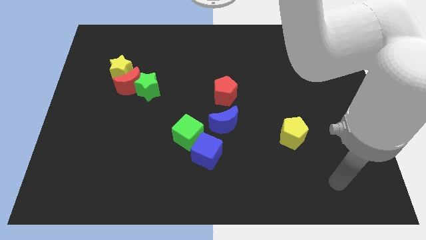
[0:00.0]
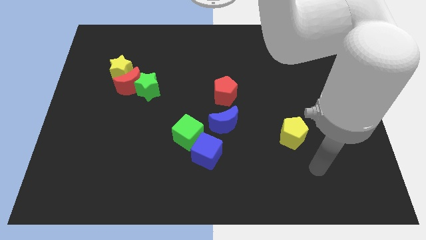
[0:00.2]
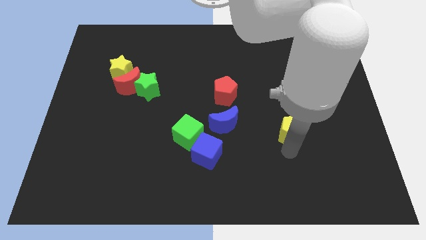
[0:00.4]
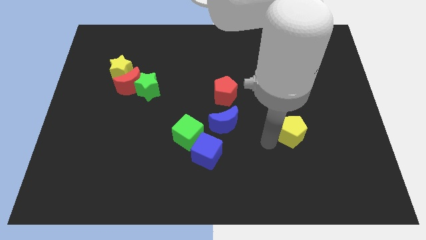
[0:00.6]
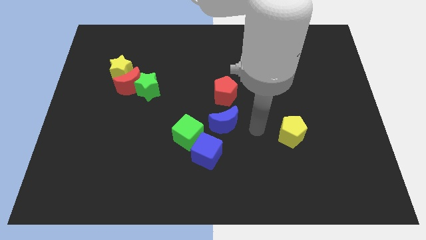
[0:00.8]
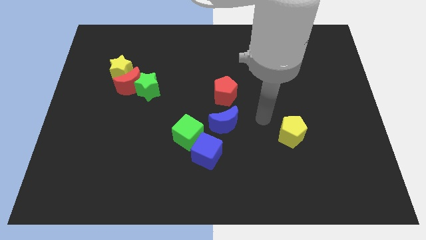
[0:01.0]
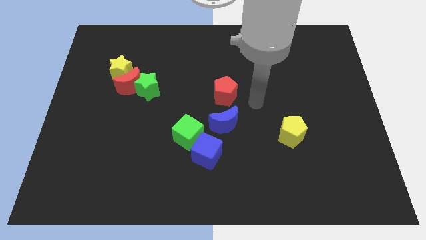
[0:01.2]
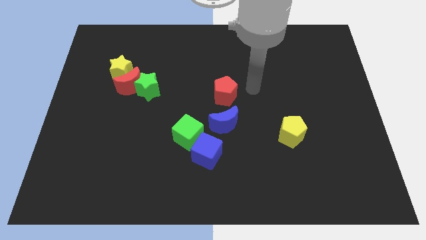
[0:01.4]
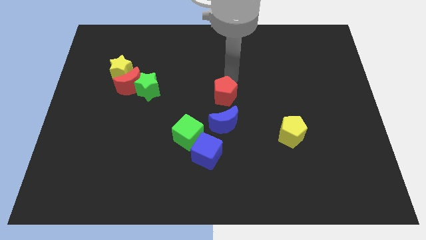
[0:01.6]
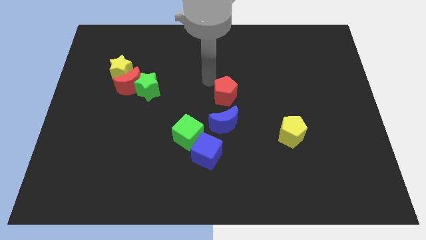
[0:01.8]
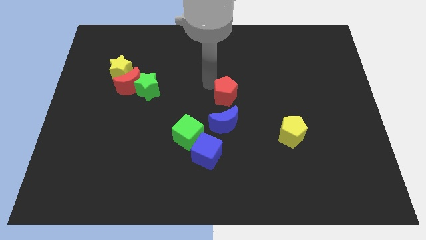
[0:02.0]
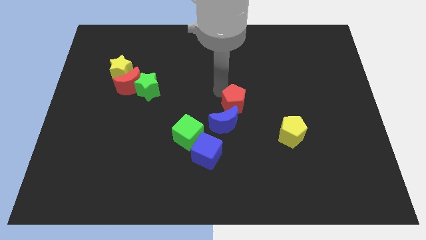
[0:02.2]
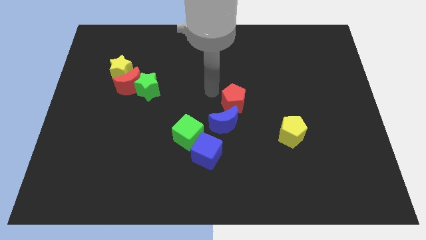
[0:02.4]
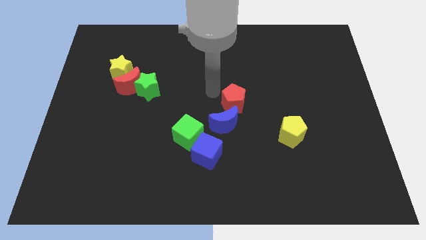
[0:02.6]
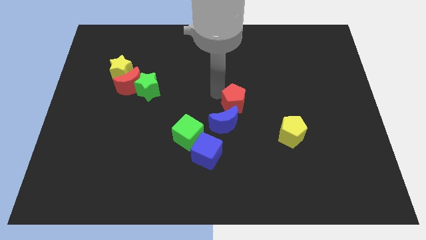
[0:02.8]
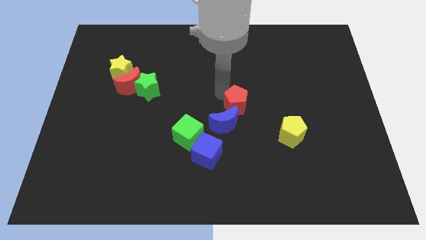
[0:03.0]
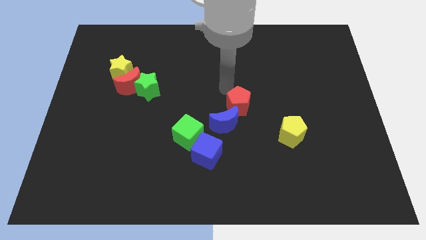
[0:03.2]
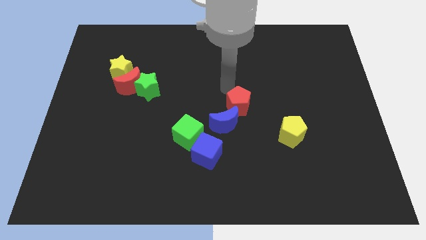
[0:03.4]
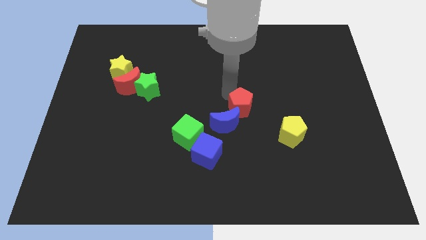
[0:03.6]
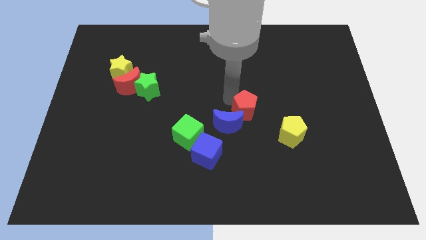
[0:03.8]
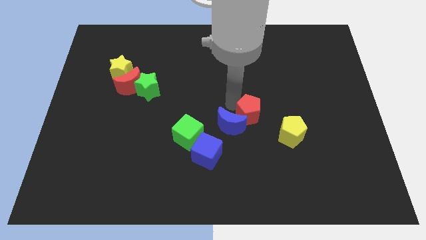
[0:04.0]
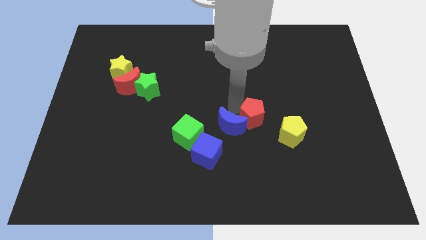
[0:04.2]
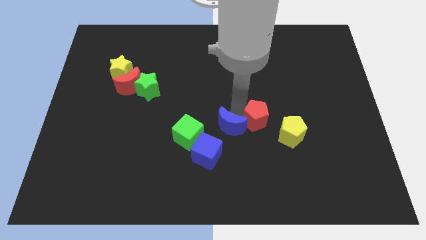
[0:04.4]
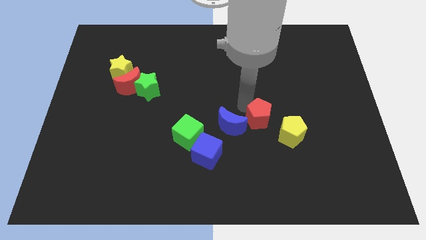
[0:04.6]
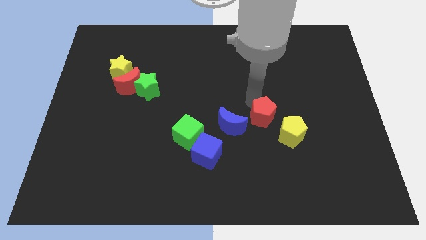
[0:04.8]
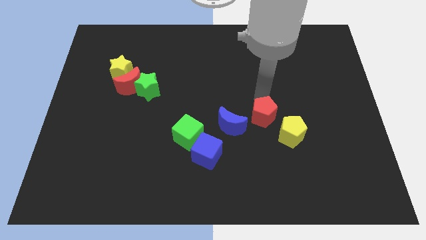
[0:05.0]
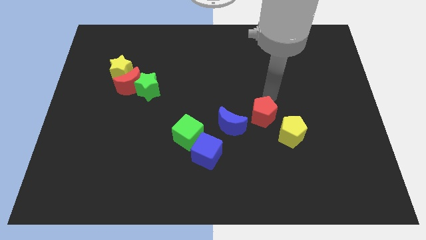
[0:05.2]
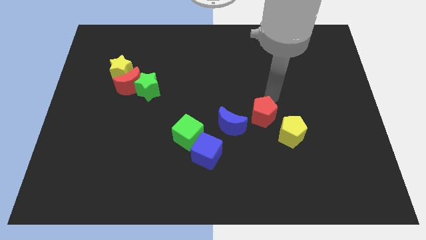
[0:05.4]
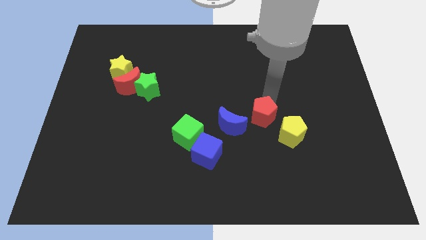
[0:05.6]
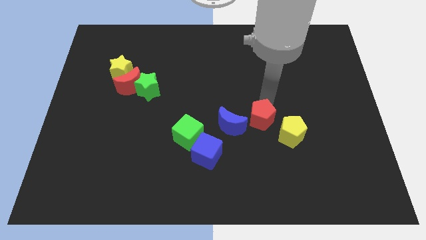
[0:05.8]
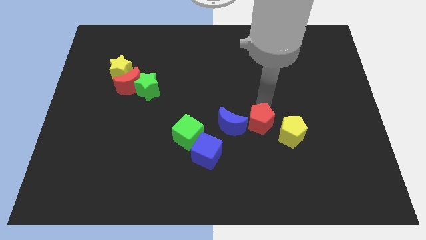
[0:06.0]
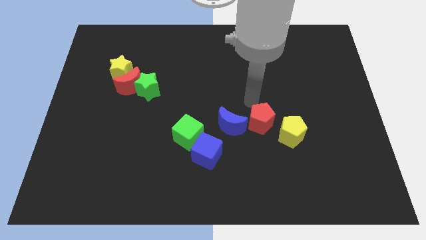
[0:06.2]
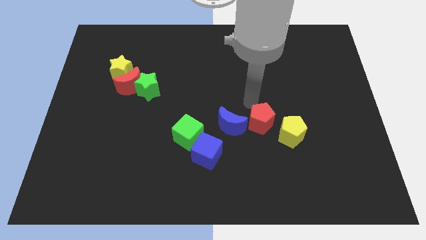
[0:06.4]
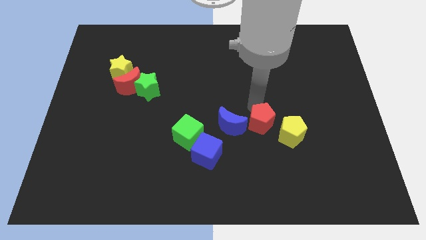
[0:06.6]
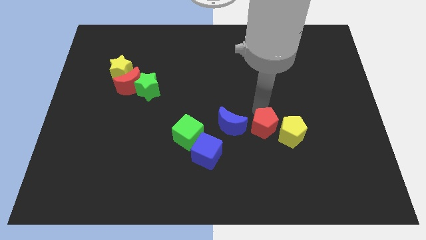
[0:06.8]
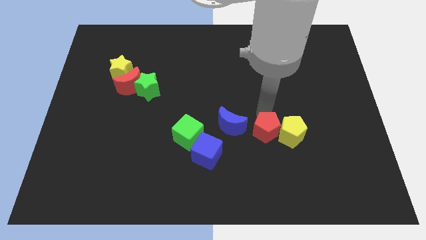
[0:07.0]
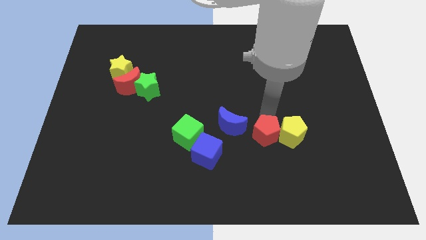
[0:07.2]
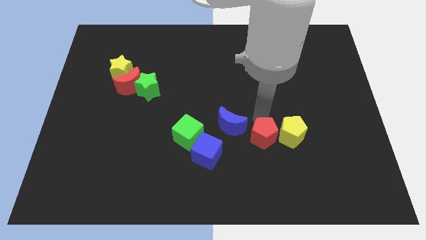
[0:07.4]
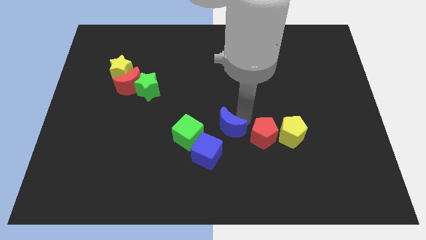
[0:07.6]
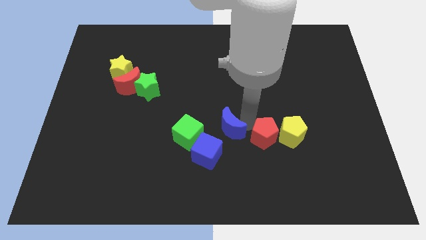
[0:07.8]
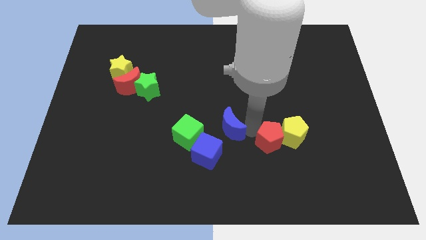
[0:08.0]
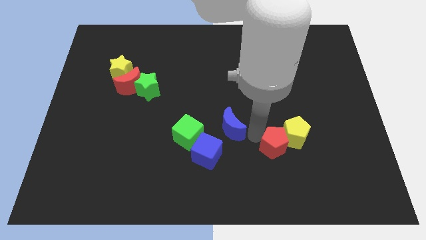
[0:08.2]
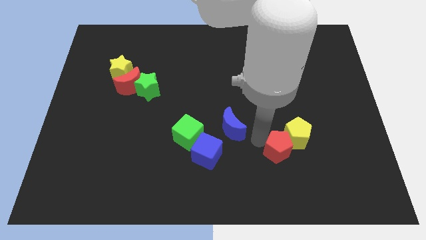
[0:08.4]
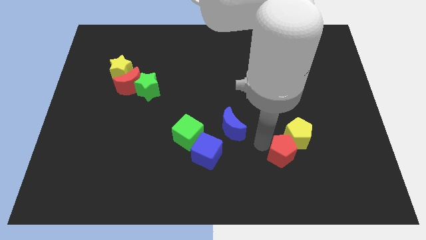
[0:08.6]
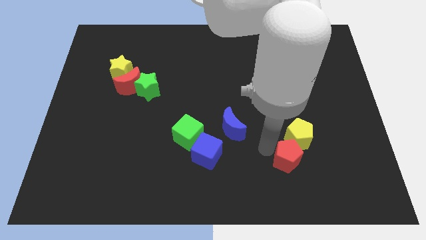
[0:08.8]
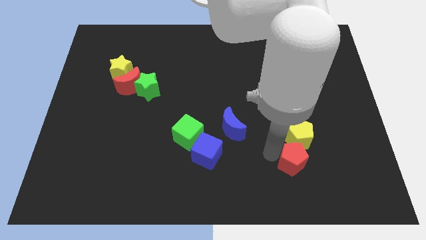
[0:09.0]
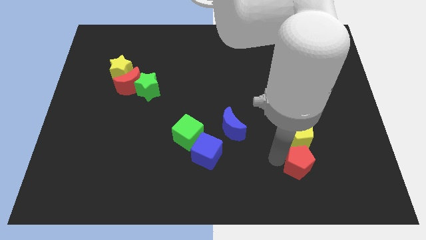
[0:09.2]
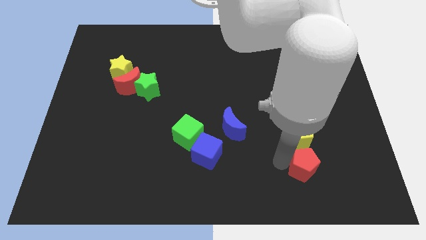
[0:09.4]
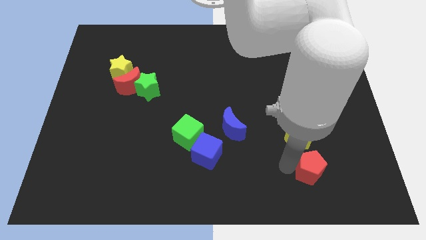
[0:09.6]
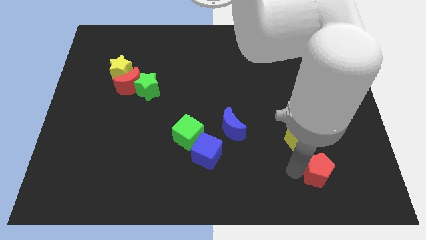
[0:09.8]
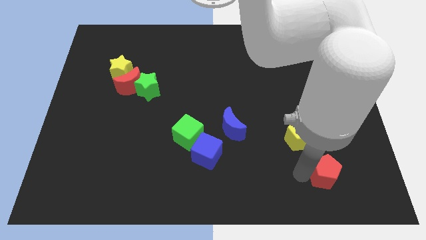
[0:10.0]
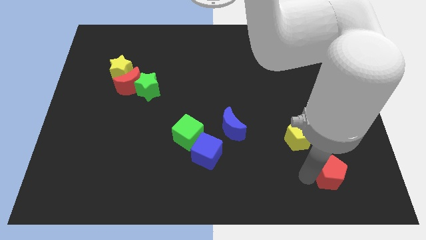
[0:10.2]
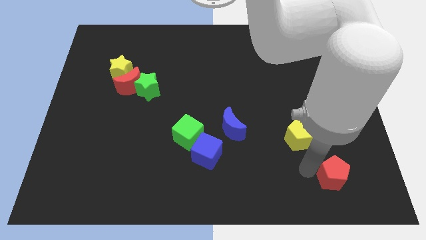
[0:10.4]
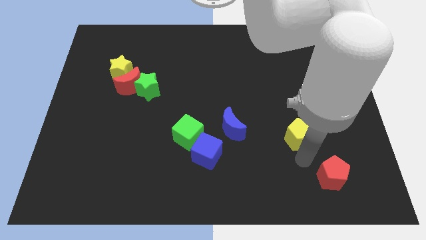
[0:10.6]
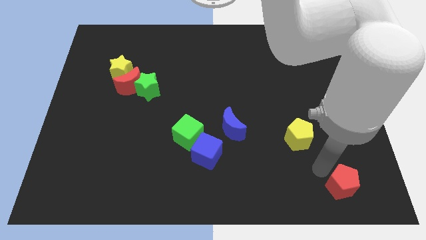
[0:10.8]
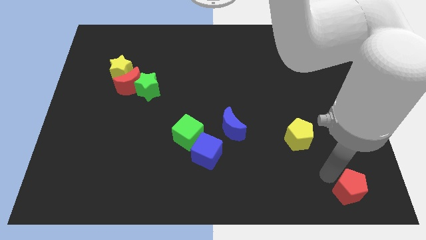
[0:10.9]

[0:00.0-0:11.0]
push the red pentagon to the bottom right corner

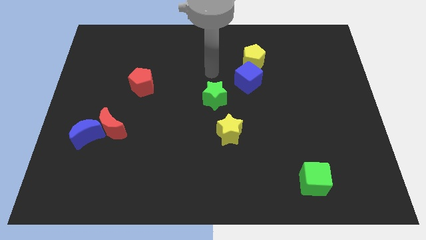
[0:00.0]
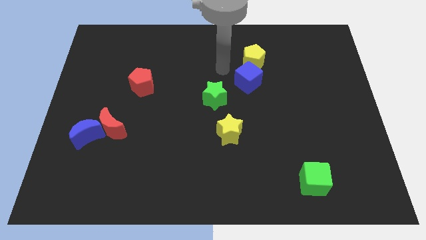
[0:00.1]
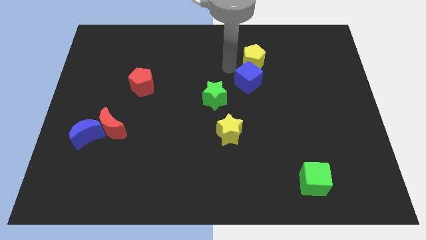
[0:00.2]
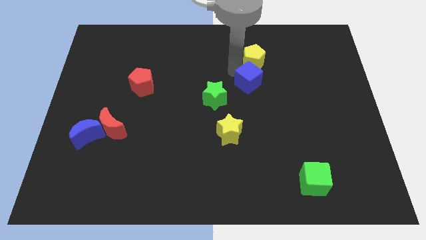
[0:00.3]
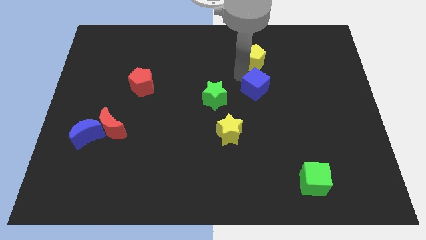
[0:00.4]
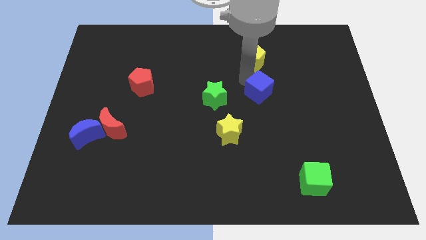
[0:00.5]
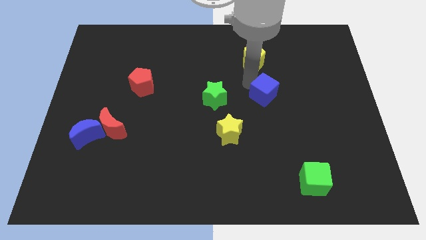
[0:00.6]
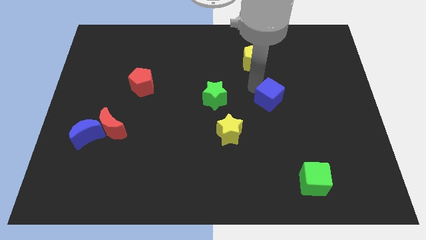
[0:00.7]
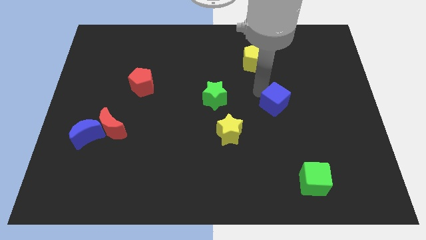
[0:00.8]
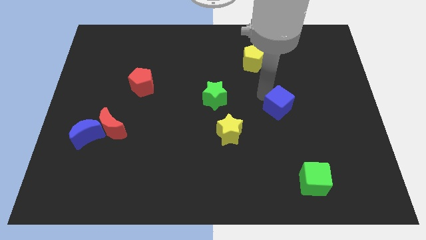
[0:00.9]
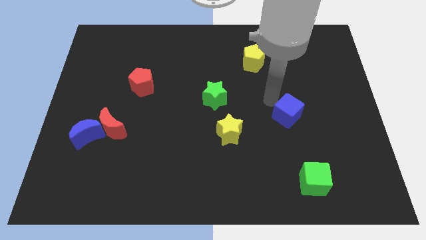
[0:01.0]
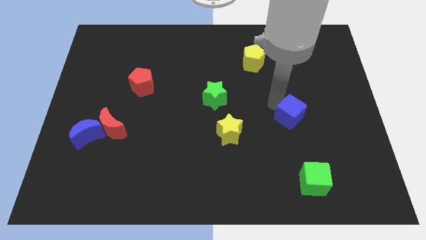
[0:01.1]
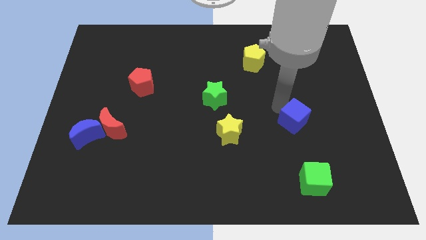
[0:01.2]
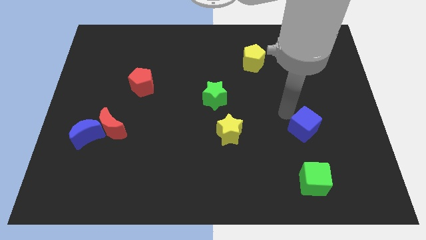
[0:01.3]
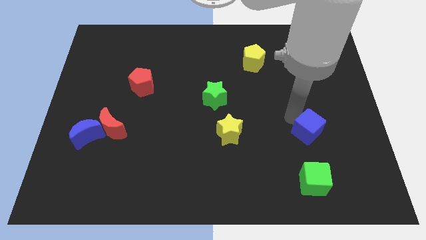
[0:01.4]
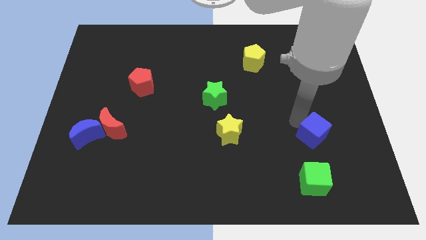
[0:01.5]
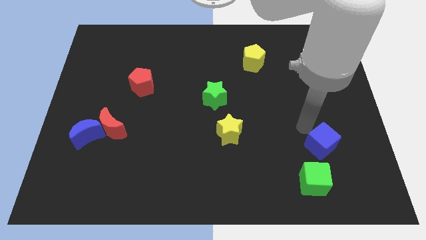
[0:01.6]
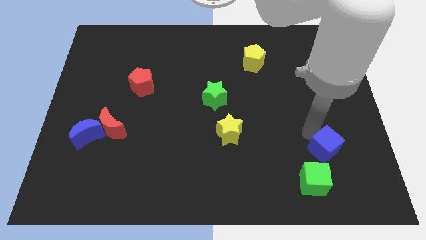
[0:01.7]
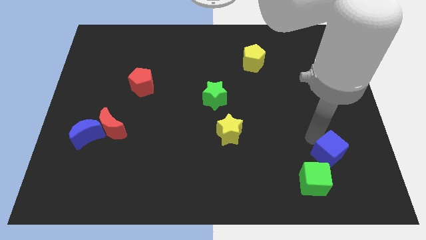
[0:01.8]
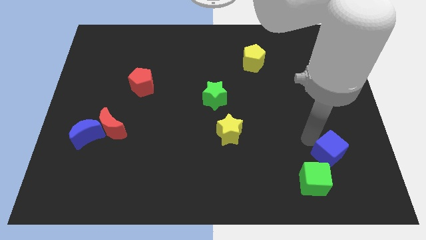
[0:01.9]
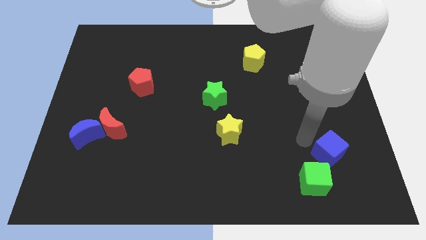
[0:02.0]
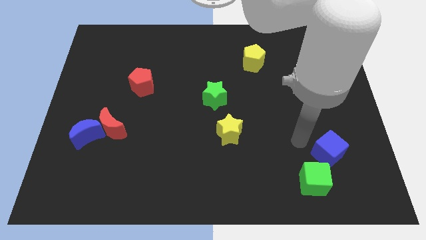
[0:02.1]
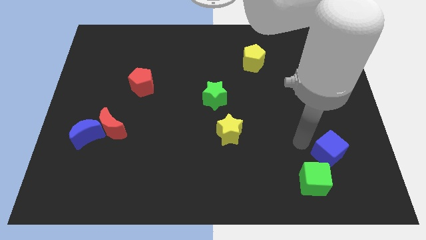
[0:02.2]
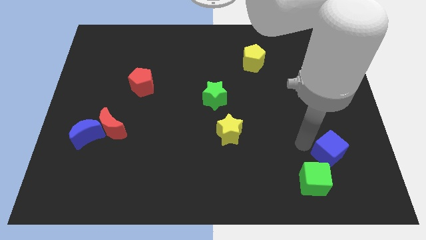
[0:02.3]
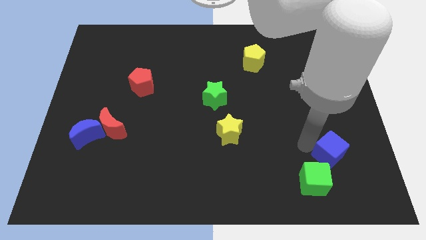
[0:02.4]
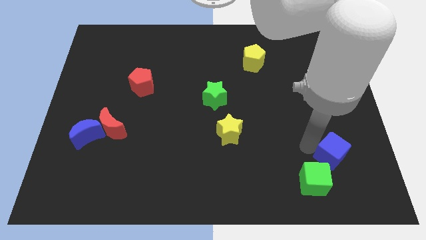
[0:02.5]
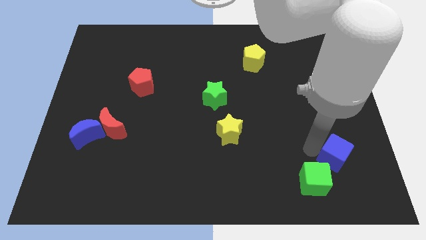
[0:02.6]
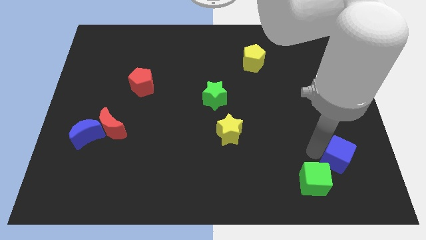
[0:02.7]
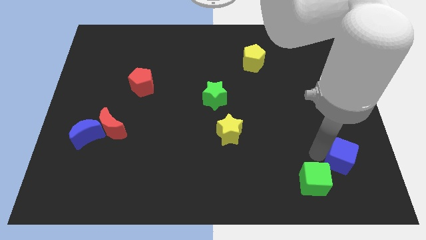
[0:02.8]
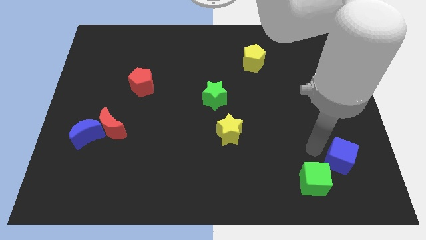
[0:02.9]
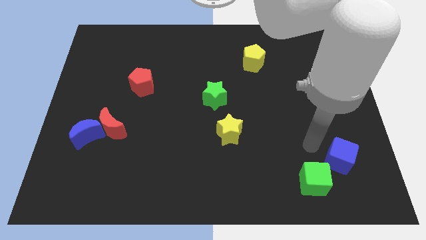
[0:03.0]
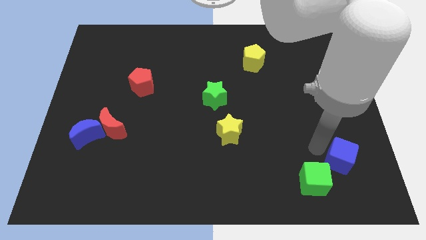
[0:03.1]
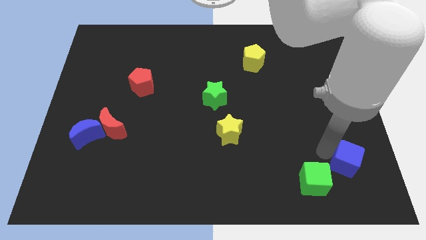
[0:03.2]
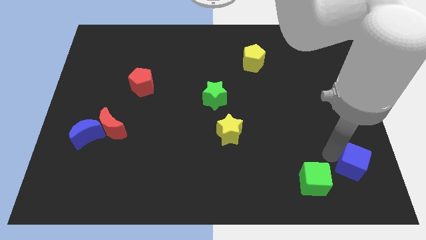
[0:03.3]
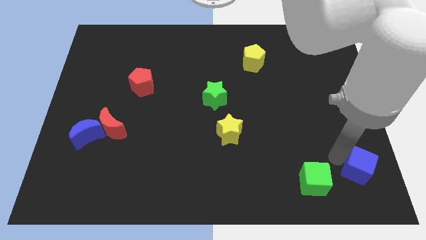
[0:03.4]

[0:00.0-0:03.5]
push the blue cube to the lower right corner
